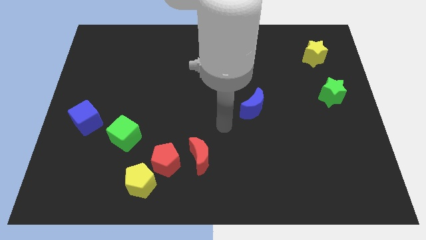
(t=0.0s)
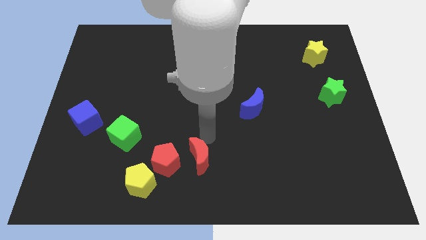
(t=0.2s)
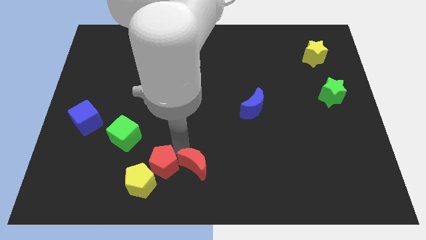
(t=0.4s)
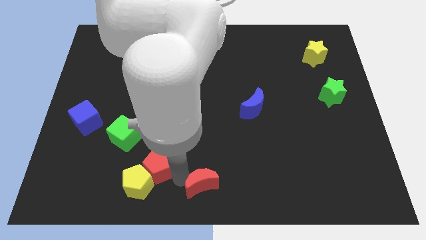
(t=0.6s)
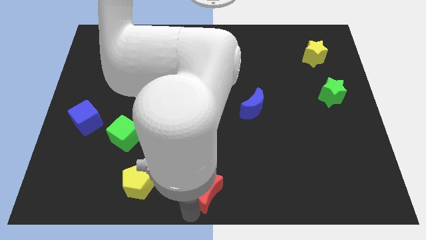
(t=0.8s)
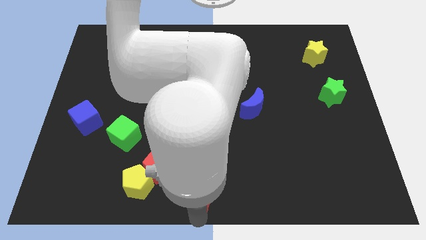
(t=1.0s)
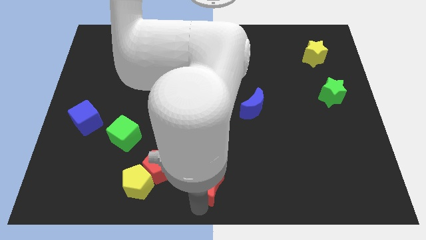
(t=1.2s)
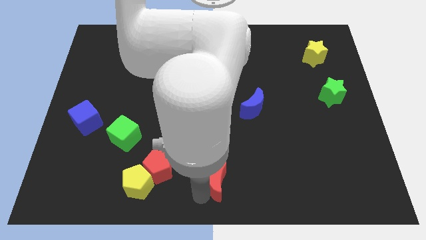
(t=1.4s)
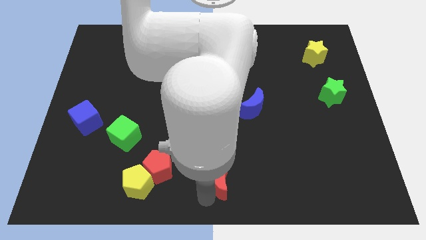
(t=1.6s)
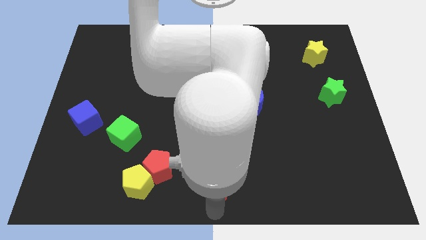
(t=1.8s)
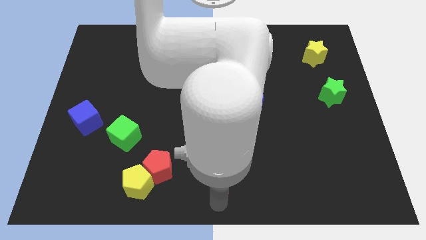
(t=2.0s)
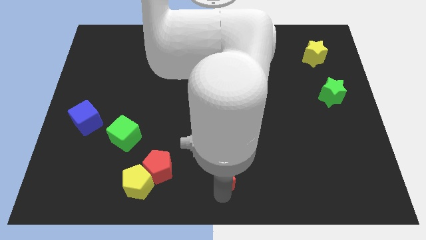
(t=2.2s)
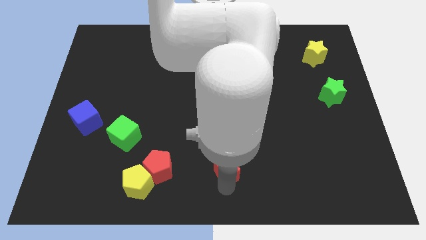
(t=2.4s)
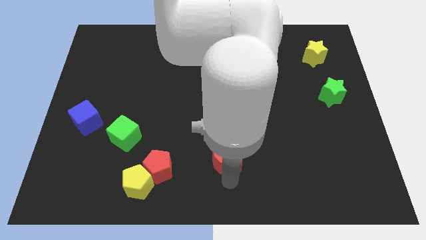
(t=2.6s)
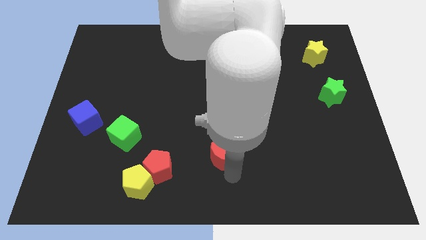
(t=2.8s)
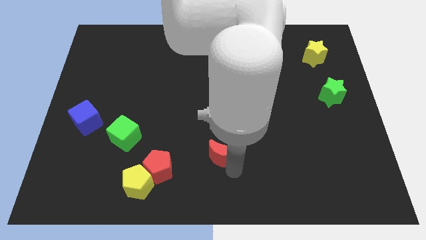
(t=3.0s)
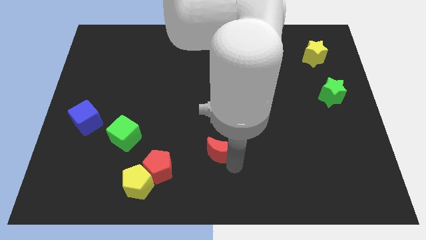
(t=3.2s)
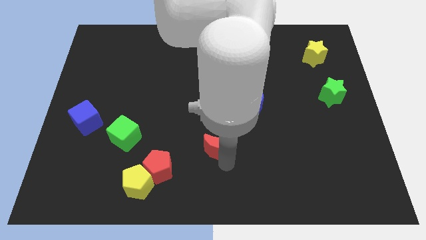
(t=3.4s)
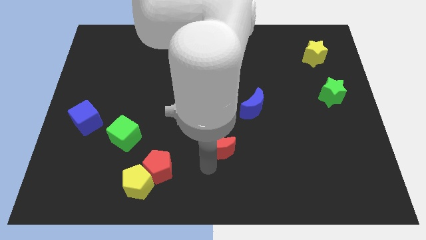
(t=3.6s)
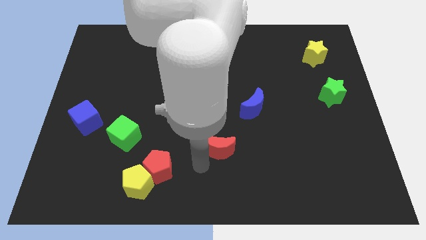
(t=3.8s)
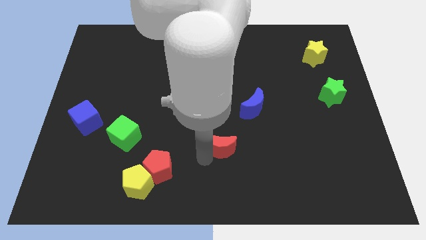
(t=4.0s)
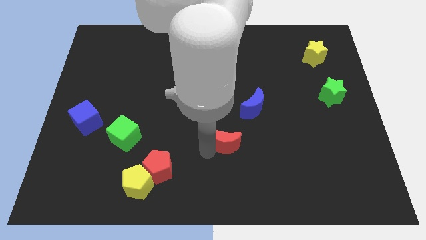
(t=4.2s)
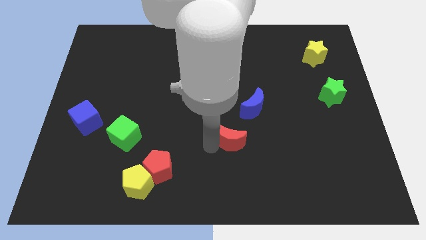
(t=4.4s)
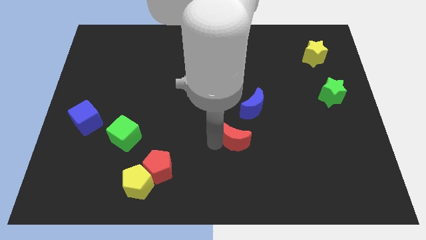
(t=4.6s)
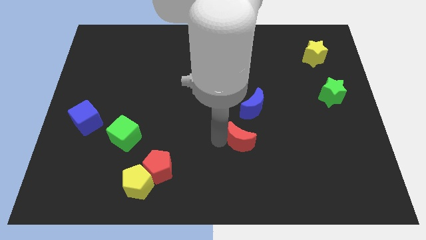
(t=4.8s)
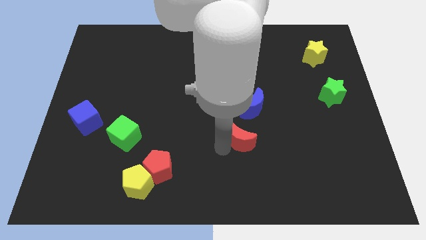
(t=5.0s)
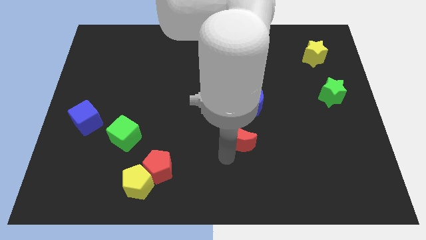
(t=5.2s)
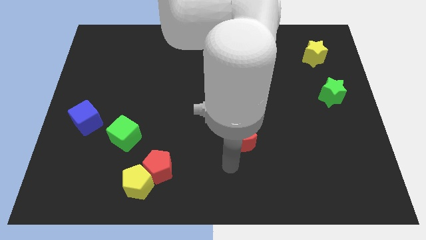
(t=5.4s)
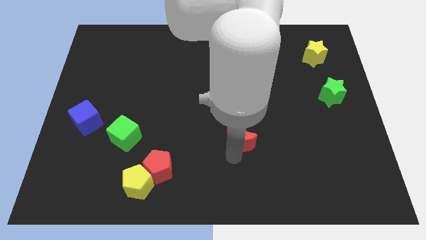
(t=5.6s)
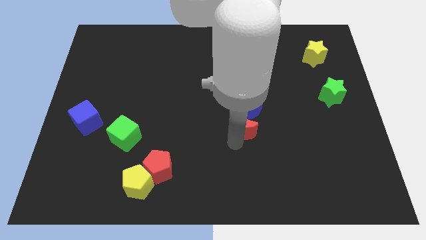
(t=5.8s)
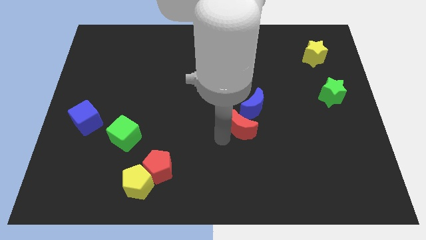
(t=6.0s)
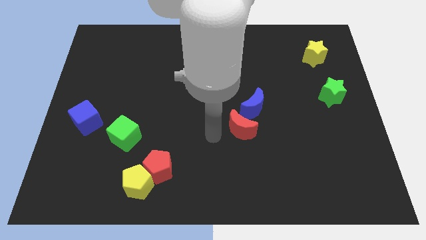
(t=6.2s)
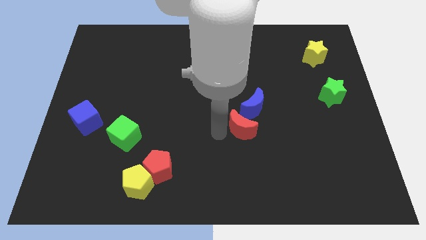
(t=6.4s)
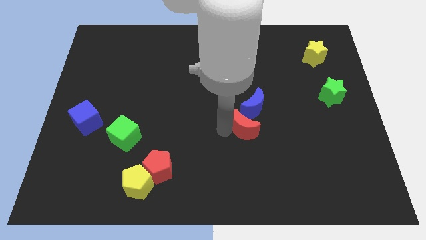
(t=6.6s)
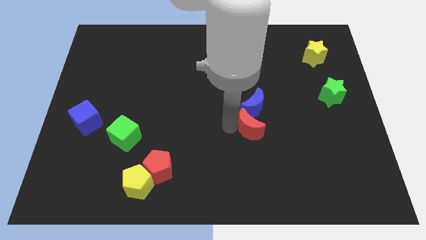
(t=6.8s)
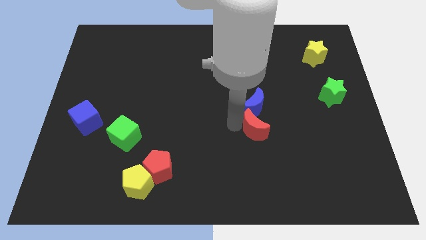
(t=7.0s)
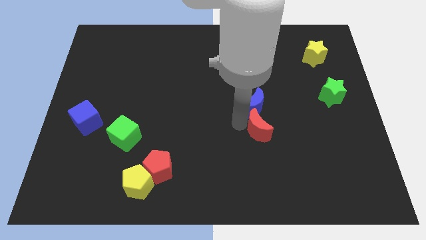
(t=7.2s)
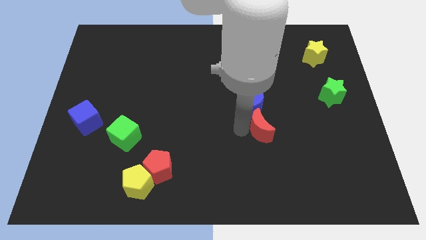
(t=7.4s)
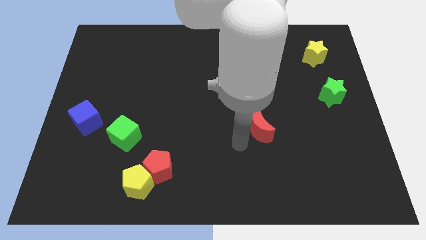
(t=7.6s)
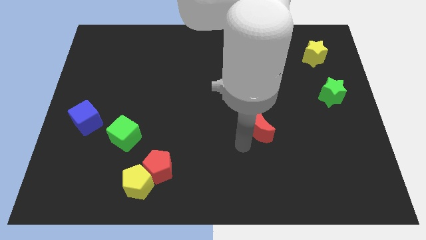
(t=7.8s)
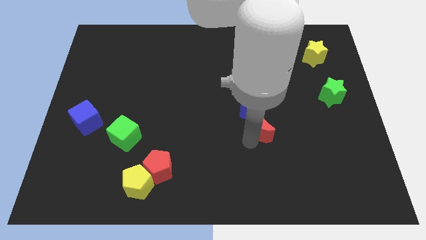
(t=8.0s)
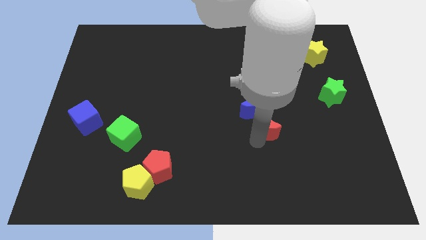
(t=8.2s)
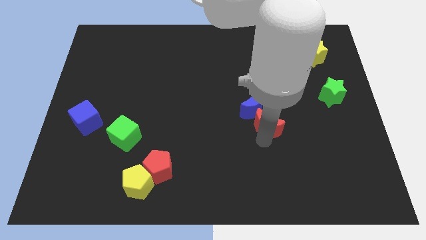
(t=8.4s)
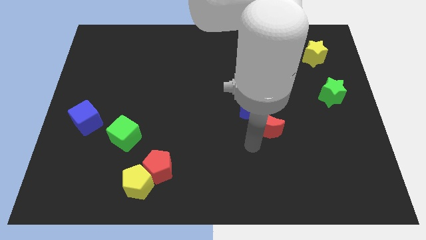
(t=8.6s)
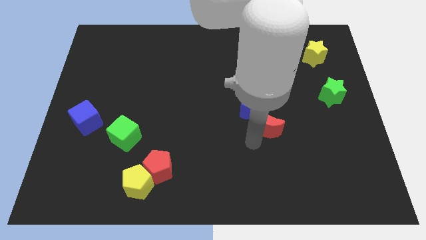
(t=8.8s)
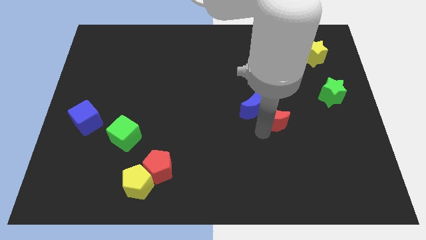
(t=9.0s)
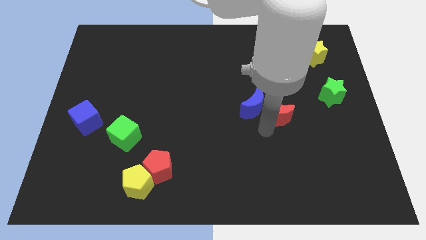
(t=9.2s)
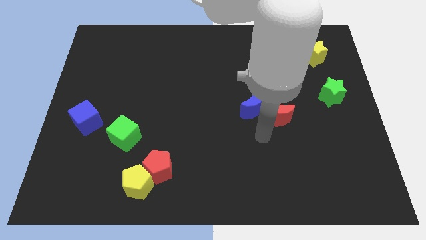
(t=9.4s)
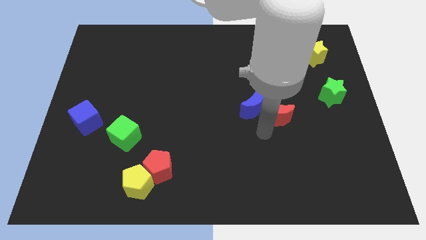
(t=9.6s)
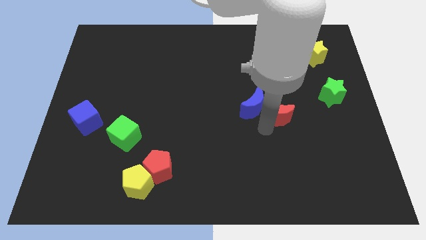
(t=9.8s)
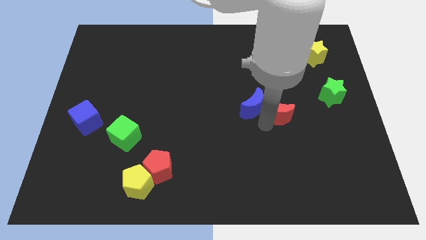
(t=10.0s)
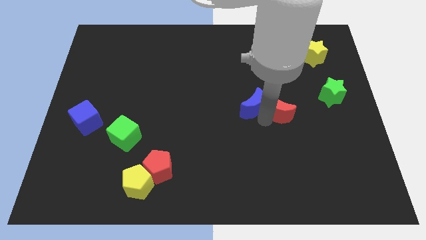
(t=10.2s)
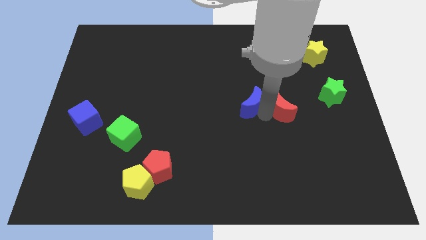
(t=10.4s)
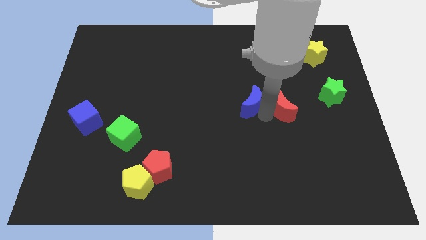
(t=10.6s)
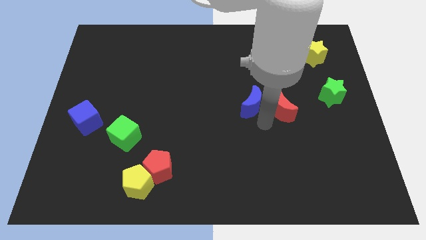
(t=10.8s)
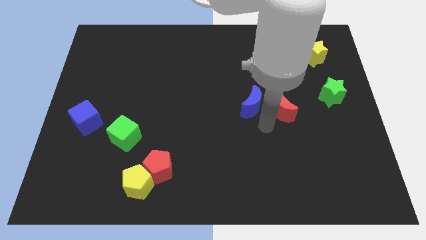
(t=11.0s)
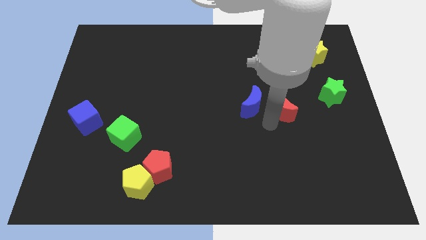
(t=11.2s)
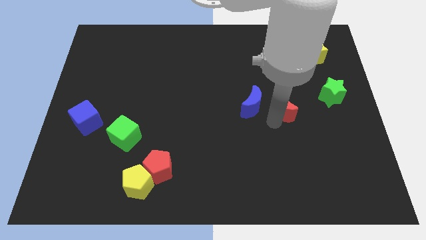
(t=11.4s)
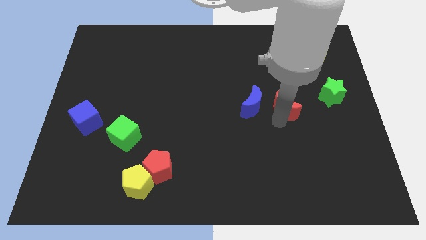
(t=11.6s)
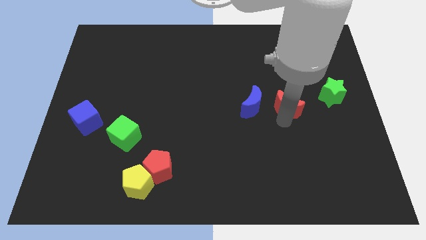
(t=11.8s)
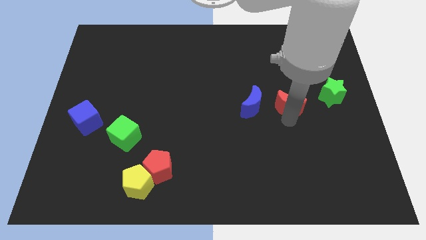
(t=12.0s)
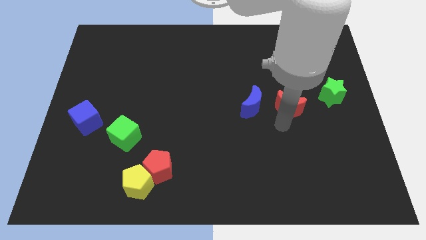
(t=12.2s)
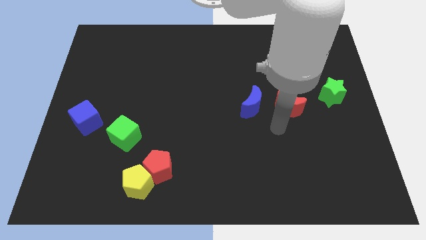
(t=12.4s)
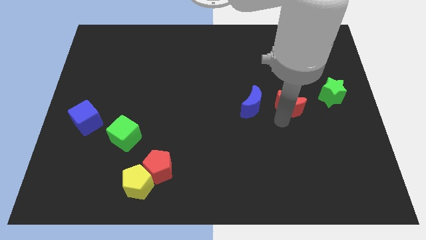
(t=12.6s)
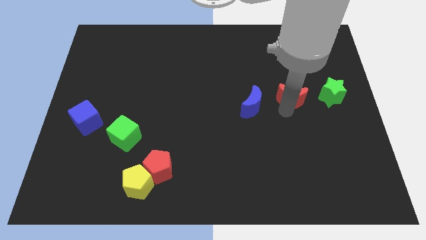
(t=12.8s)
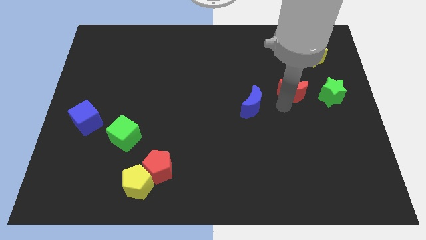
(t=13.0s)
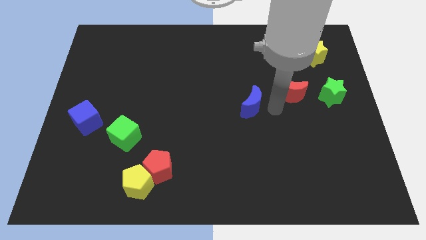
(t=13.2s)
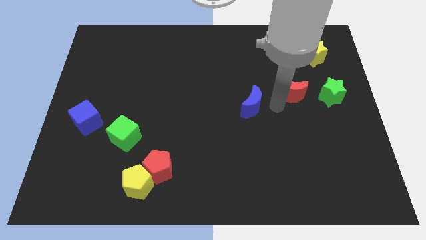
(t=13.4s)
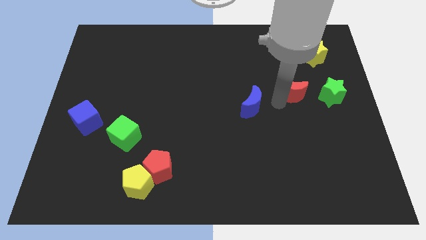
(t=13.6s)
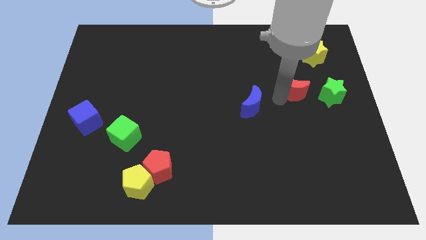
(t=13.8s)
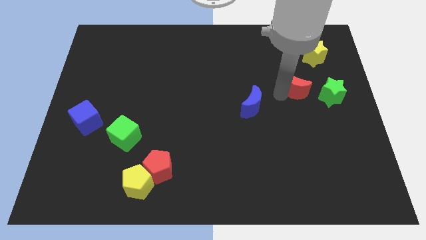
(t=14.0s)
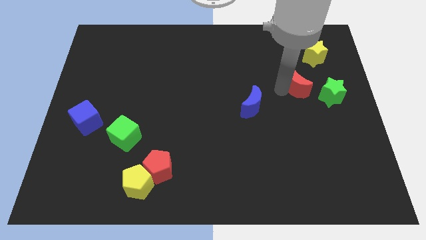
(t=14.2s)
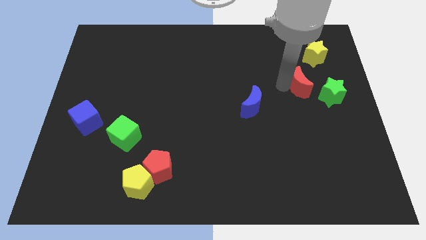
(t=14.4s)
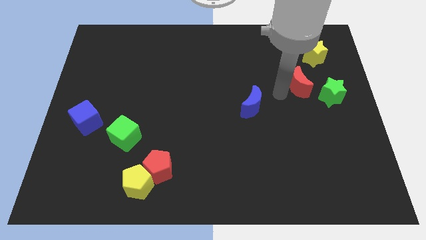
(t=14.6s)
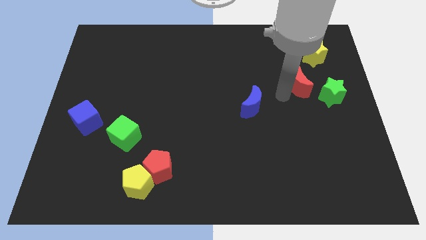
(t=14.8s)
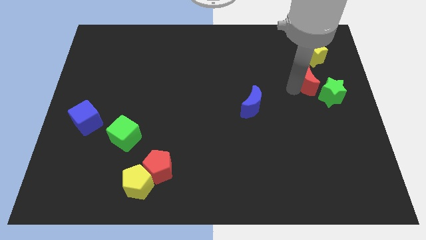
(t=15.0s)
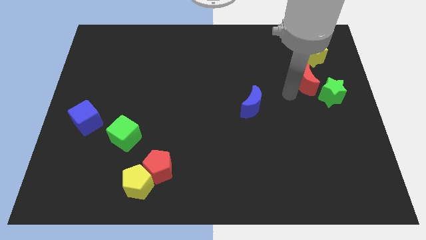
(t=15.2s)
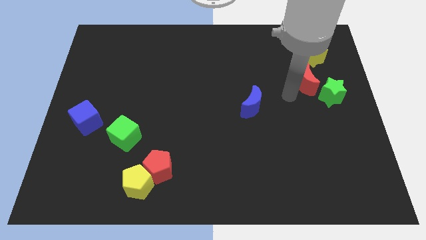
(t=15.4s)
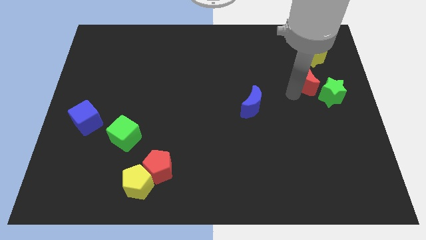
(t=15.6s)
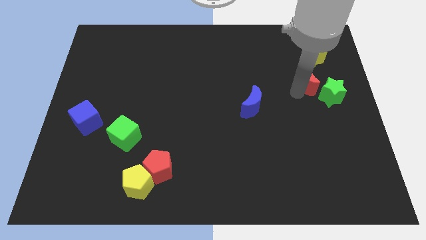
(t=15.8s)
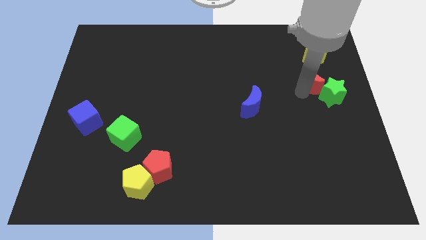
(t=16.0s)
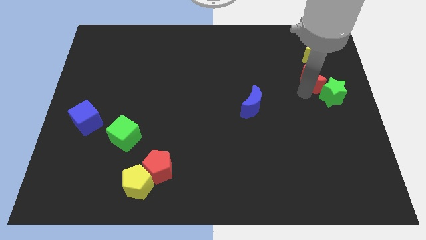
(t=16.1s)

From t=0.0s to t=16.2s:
slide the red moon above the green star
